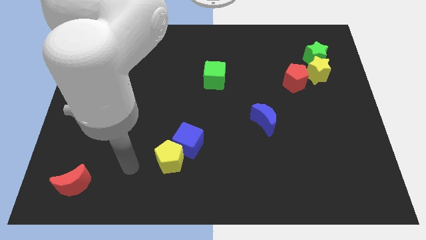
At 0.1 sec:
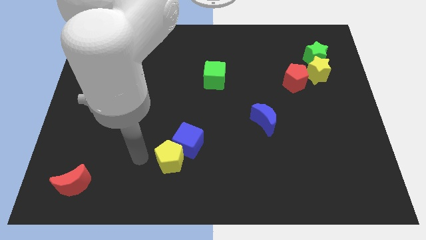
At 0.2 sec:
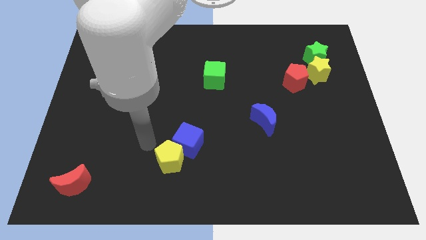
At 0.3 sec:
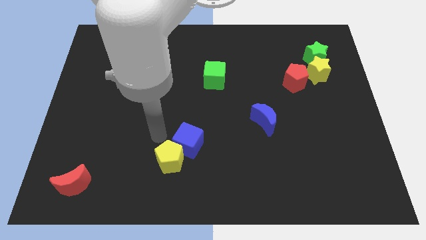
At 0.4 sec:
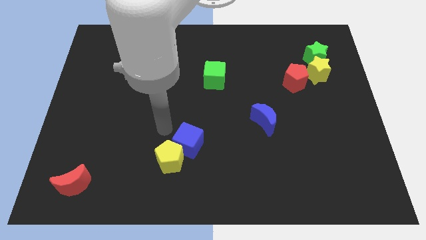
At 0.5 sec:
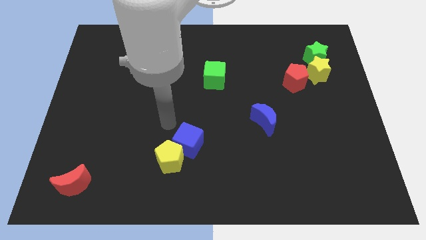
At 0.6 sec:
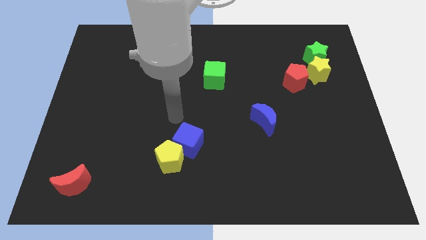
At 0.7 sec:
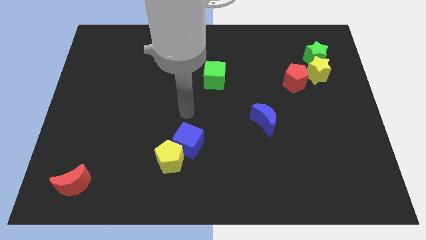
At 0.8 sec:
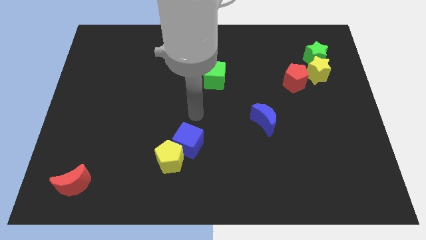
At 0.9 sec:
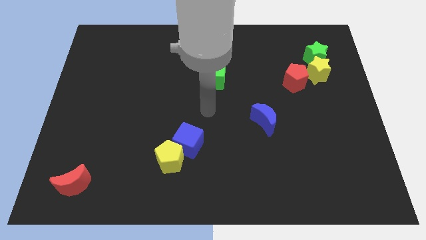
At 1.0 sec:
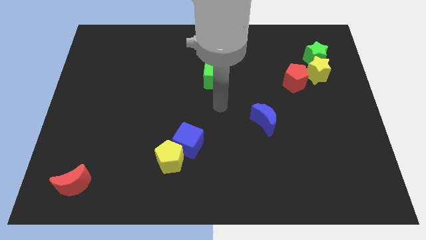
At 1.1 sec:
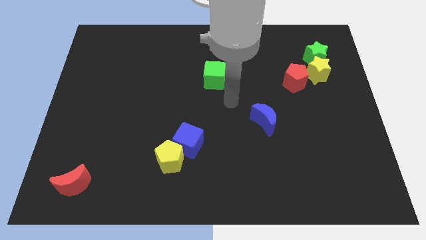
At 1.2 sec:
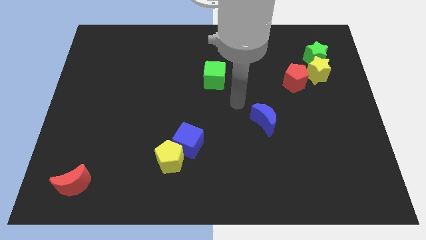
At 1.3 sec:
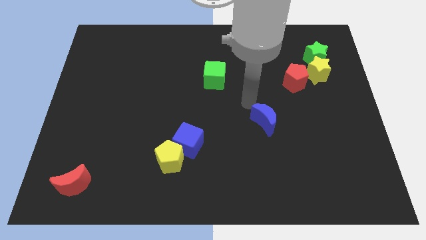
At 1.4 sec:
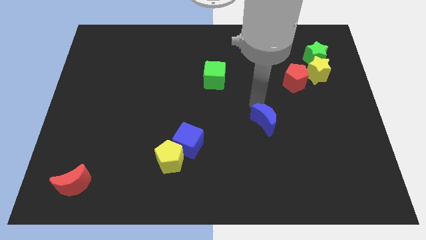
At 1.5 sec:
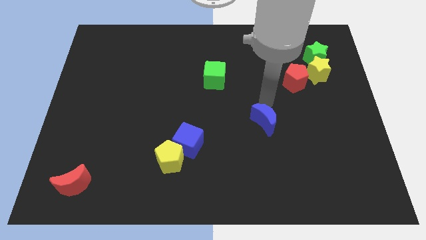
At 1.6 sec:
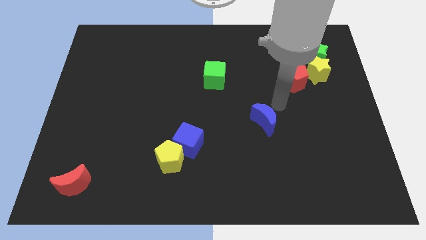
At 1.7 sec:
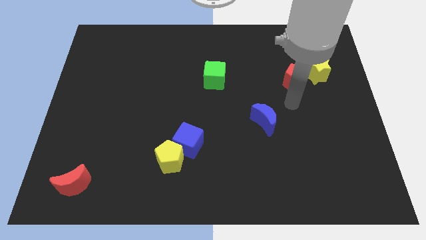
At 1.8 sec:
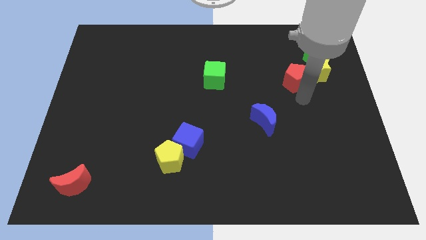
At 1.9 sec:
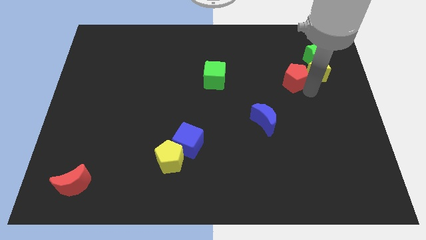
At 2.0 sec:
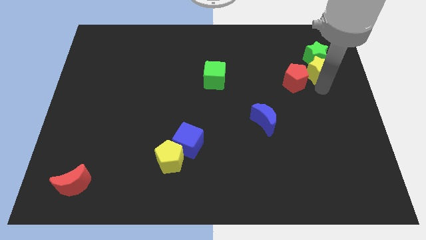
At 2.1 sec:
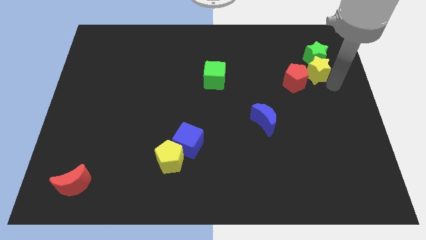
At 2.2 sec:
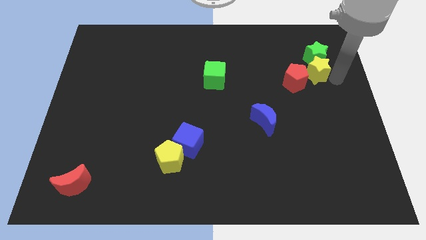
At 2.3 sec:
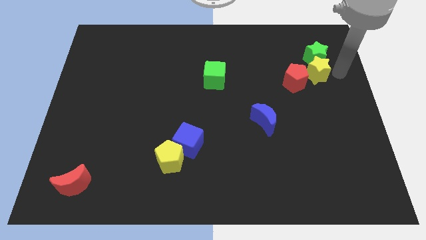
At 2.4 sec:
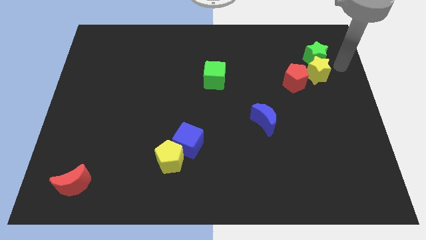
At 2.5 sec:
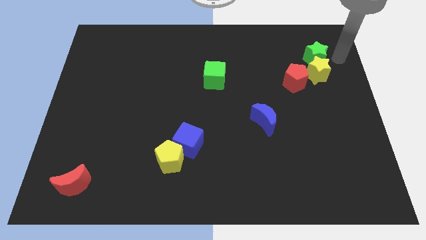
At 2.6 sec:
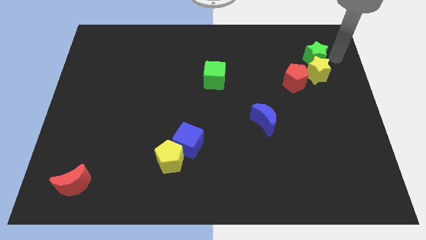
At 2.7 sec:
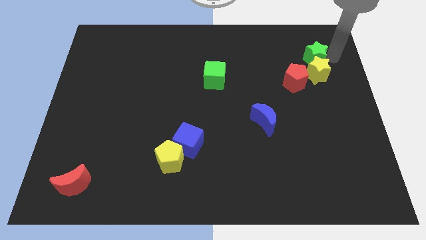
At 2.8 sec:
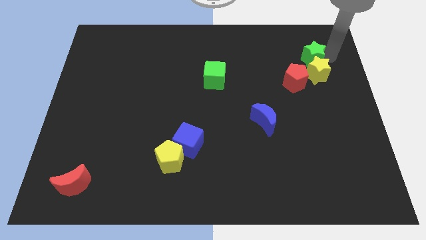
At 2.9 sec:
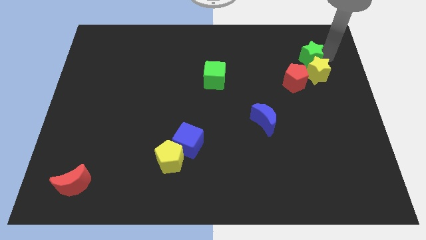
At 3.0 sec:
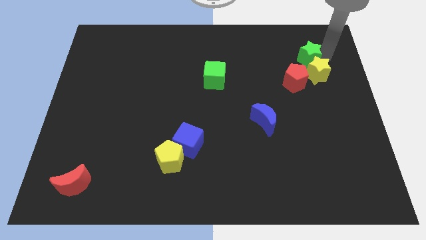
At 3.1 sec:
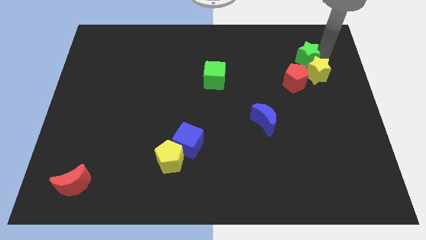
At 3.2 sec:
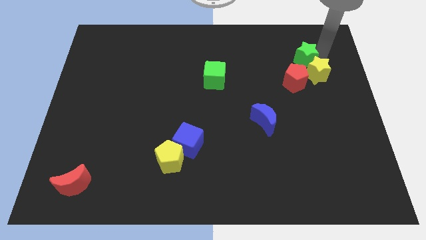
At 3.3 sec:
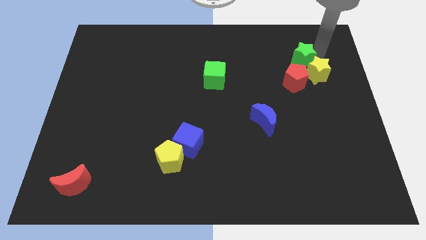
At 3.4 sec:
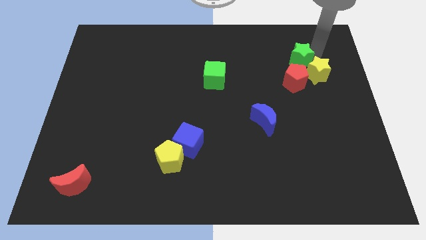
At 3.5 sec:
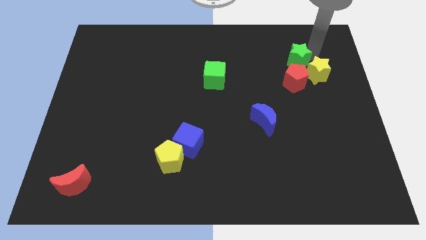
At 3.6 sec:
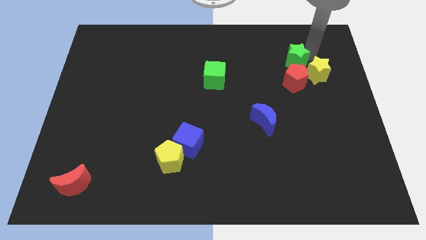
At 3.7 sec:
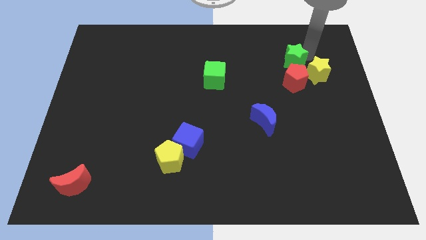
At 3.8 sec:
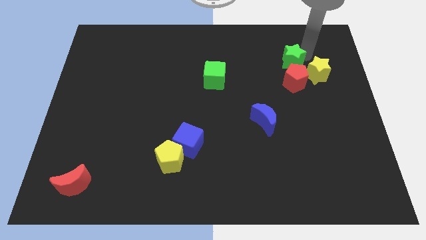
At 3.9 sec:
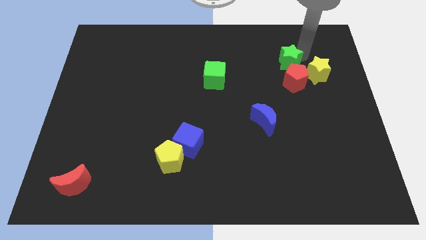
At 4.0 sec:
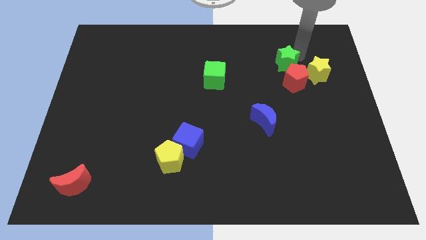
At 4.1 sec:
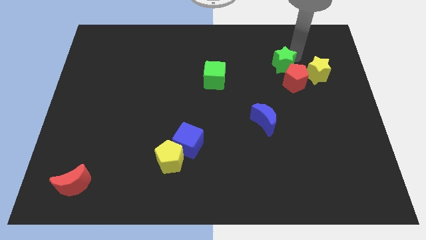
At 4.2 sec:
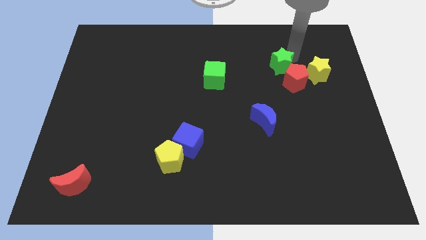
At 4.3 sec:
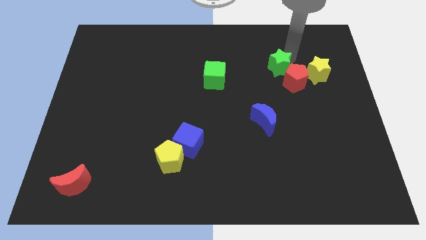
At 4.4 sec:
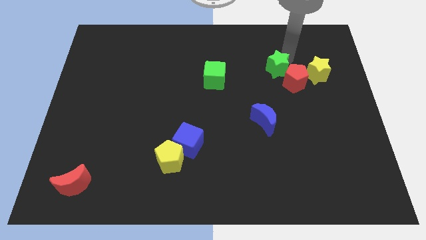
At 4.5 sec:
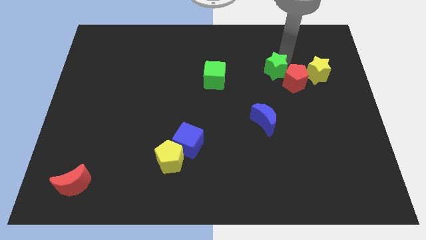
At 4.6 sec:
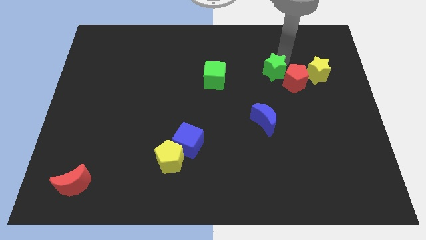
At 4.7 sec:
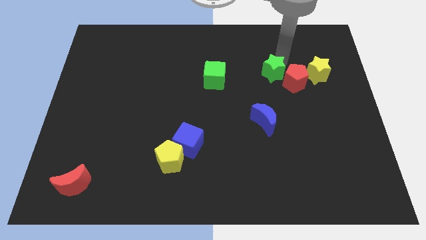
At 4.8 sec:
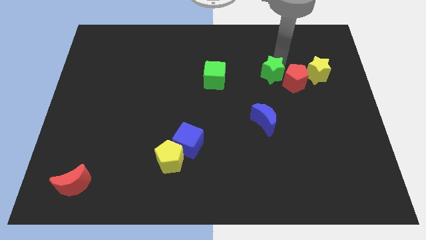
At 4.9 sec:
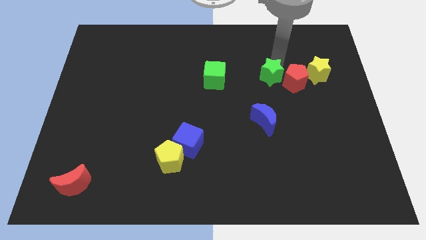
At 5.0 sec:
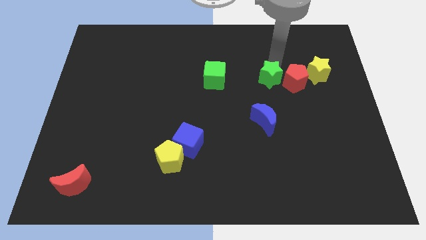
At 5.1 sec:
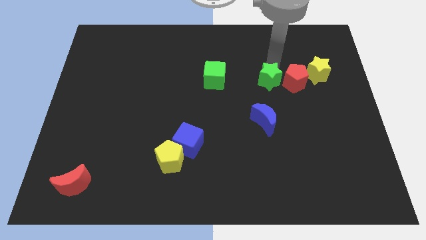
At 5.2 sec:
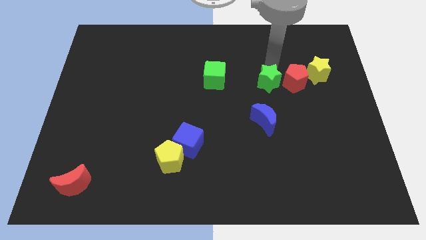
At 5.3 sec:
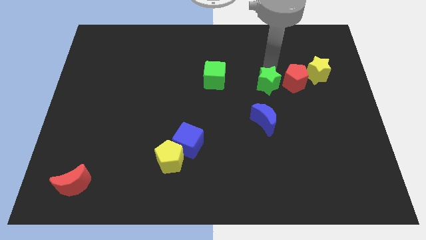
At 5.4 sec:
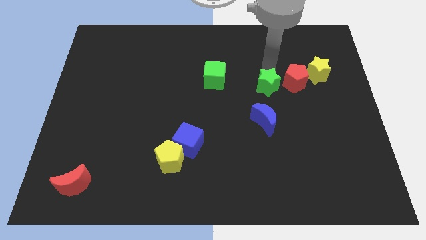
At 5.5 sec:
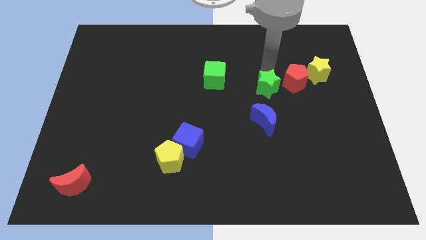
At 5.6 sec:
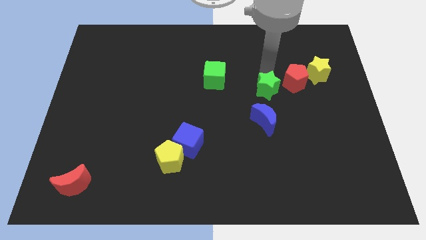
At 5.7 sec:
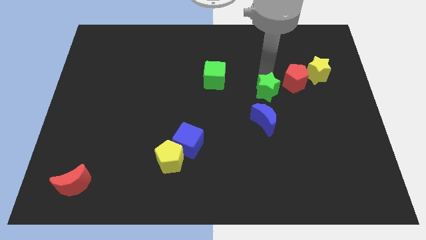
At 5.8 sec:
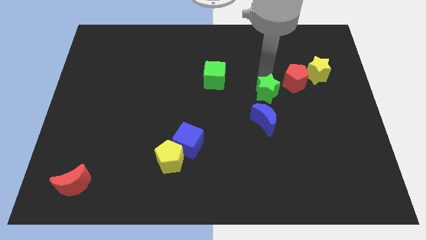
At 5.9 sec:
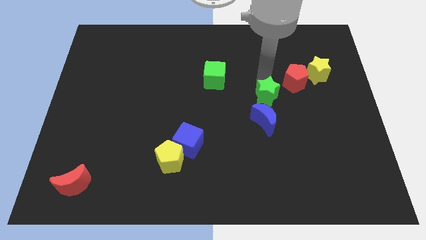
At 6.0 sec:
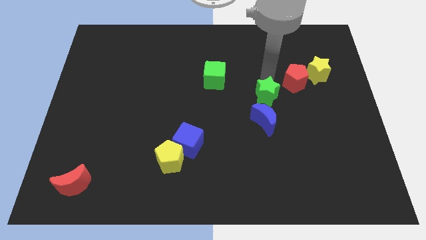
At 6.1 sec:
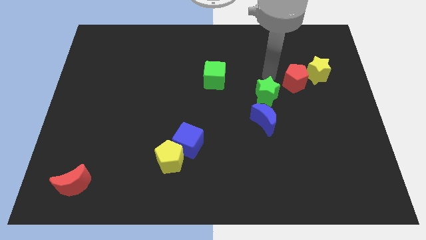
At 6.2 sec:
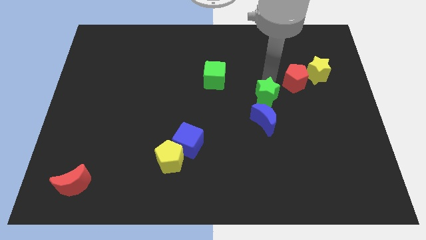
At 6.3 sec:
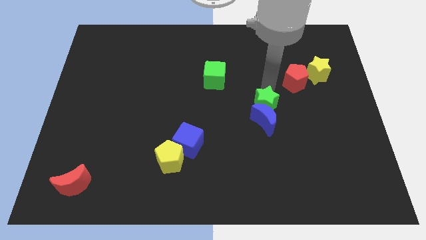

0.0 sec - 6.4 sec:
put the green star close to the blue moon

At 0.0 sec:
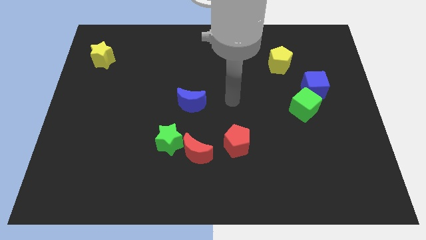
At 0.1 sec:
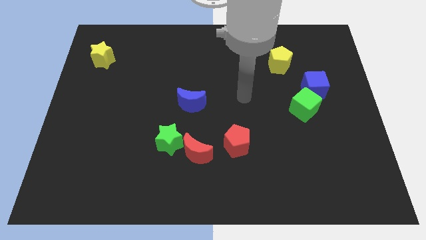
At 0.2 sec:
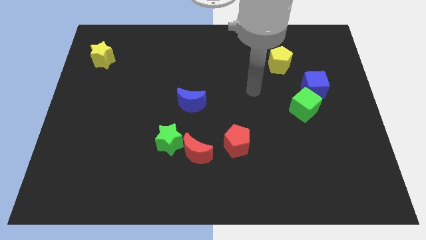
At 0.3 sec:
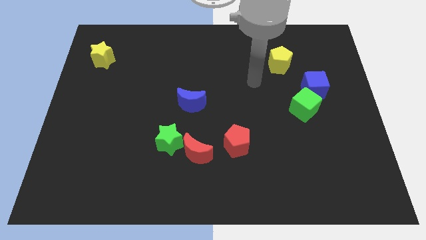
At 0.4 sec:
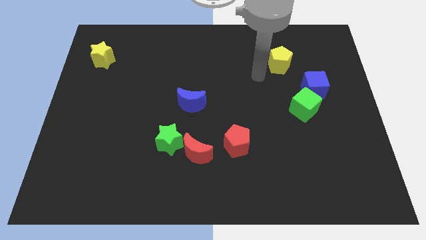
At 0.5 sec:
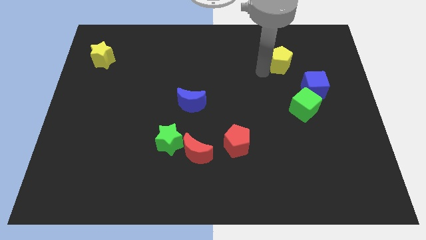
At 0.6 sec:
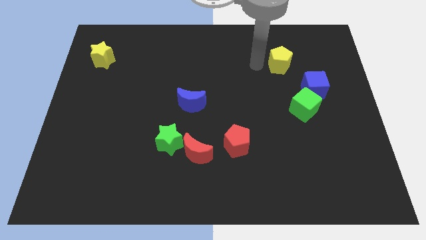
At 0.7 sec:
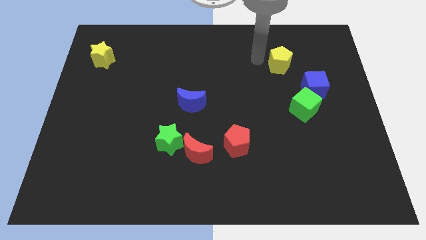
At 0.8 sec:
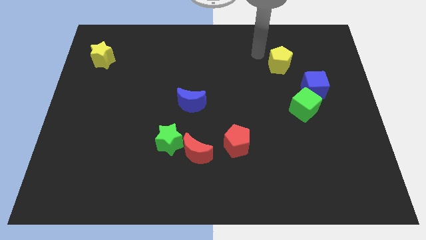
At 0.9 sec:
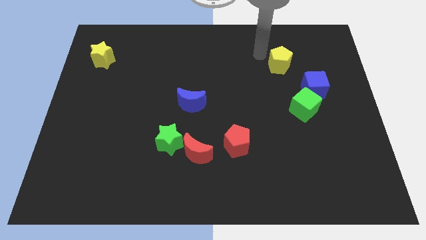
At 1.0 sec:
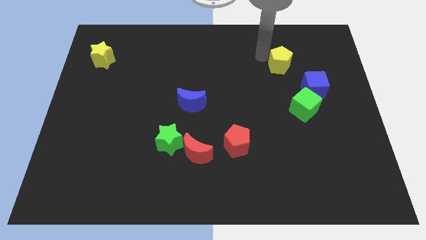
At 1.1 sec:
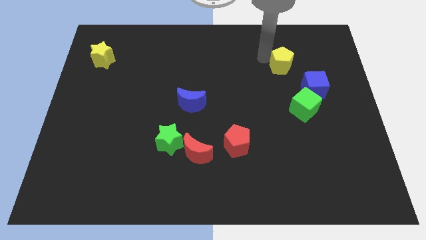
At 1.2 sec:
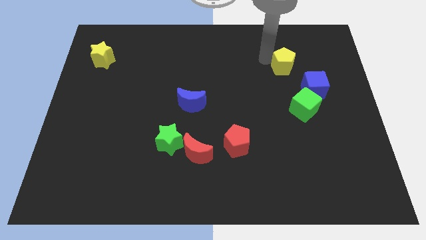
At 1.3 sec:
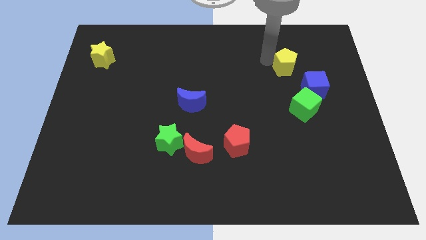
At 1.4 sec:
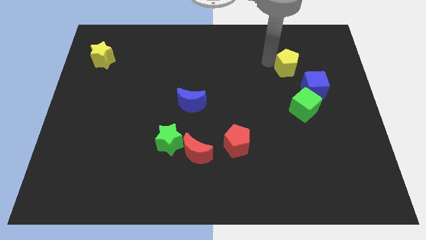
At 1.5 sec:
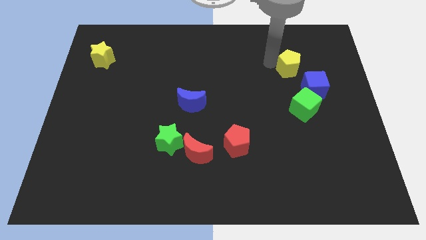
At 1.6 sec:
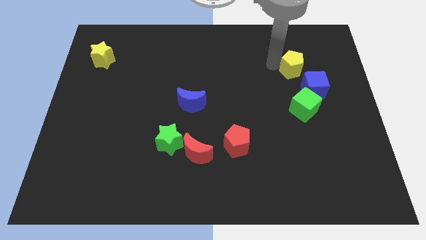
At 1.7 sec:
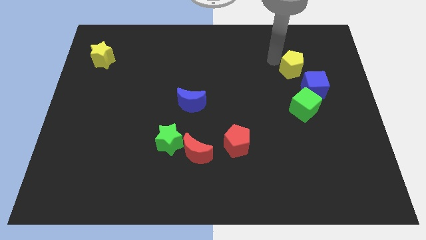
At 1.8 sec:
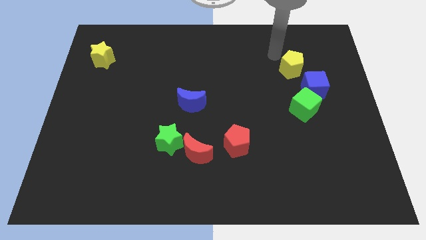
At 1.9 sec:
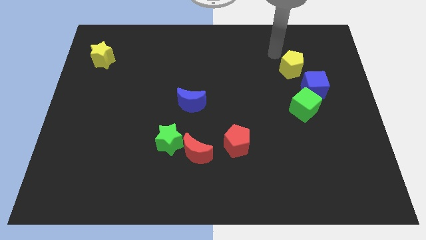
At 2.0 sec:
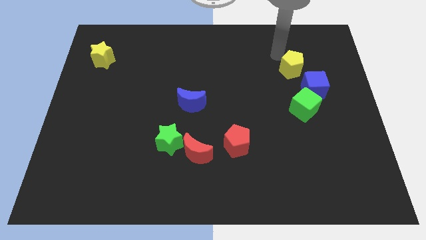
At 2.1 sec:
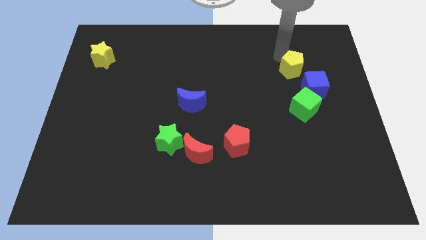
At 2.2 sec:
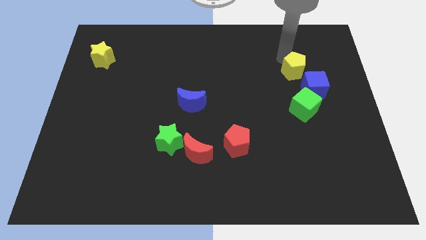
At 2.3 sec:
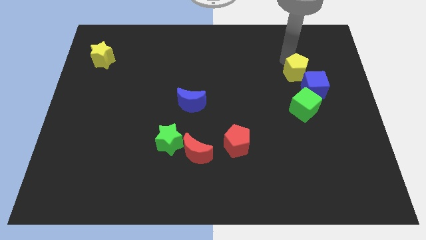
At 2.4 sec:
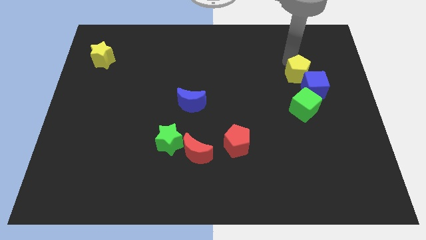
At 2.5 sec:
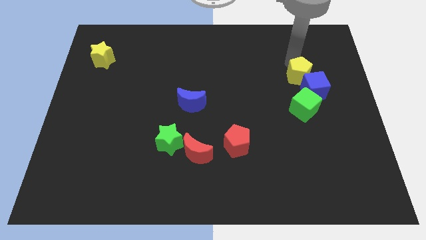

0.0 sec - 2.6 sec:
put the yellow pentagon next to the blue cube
